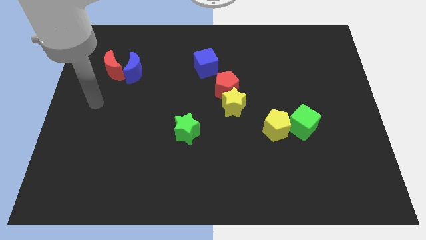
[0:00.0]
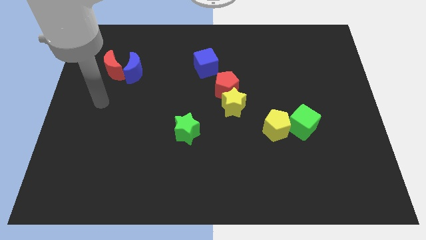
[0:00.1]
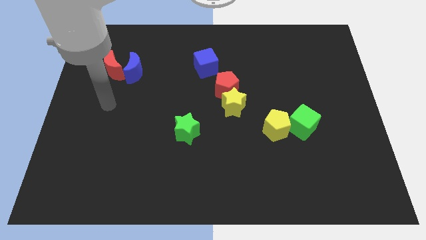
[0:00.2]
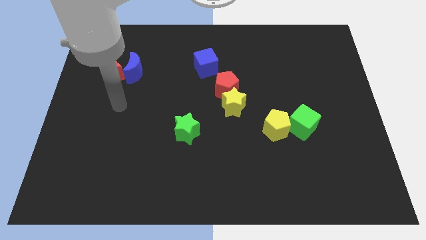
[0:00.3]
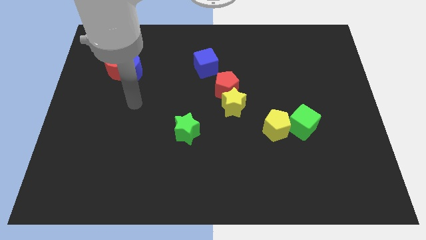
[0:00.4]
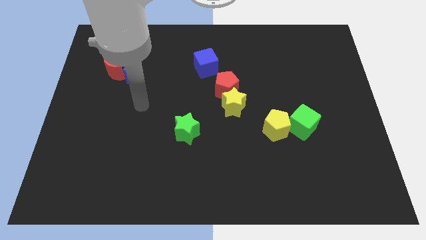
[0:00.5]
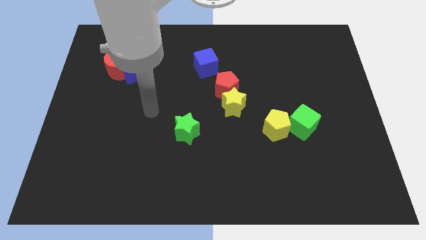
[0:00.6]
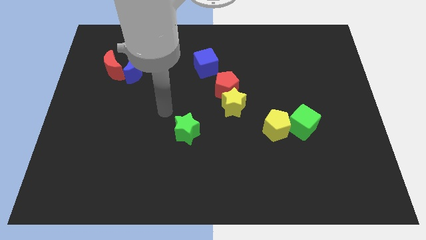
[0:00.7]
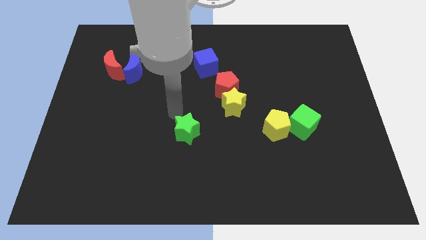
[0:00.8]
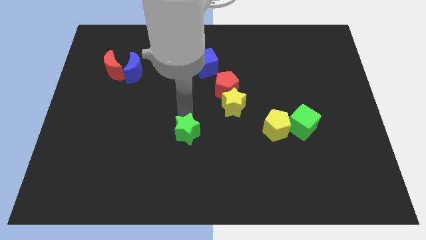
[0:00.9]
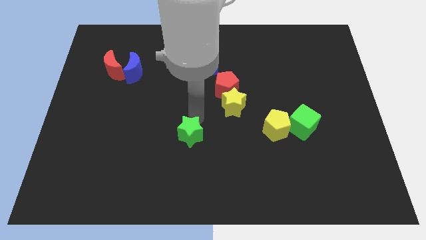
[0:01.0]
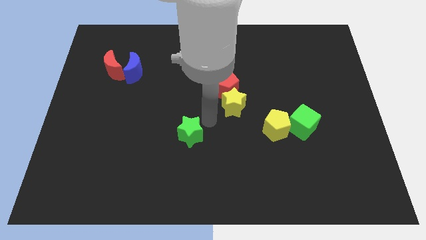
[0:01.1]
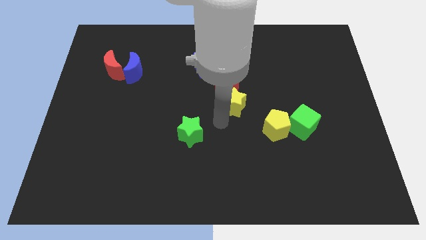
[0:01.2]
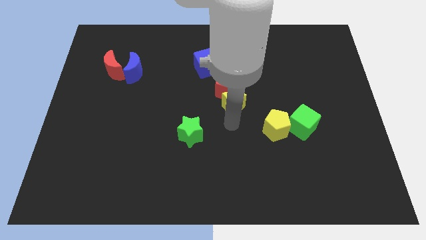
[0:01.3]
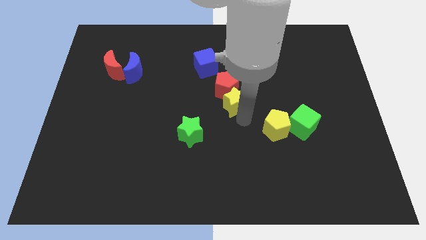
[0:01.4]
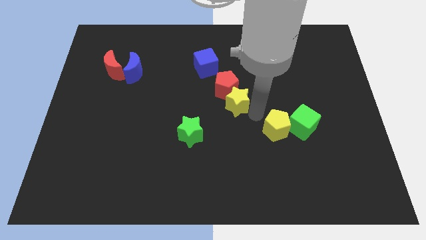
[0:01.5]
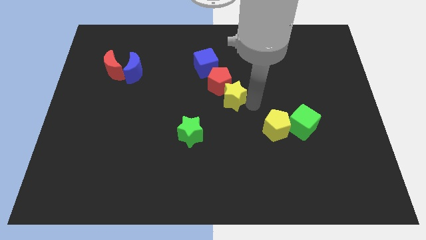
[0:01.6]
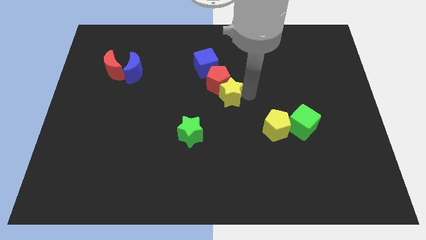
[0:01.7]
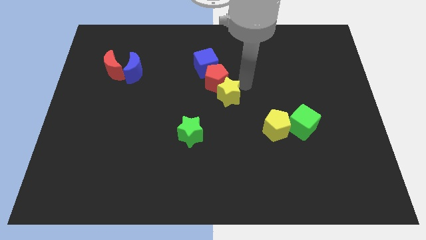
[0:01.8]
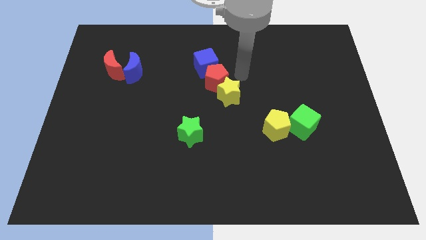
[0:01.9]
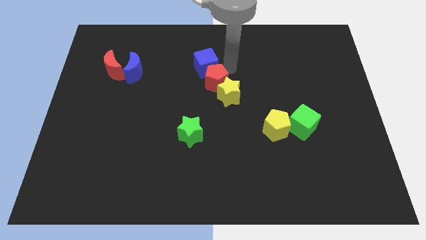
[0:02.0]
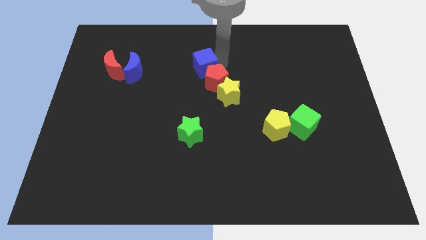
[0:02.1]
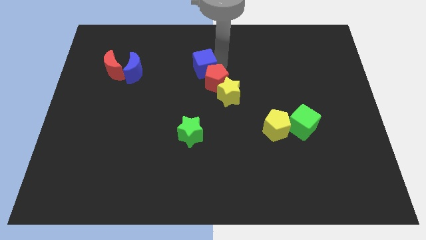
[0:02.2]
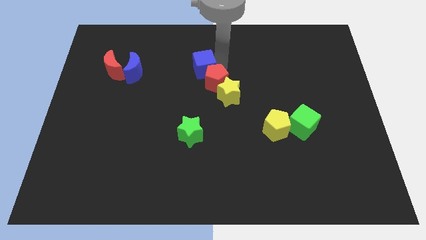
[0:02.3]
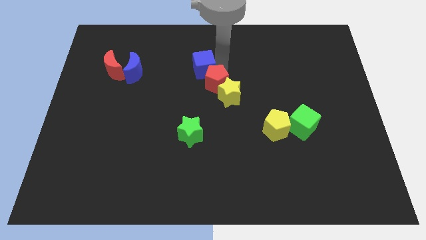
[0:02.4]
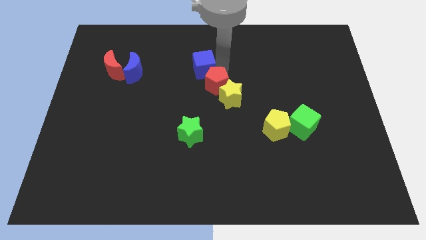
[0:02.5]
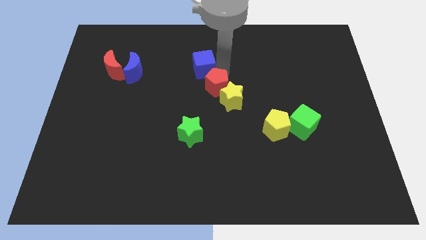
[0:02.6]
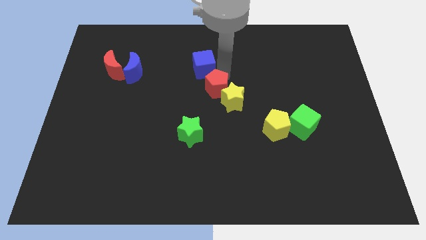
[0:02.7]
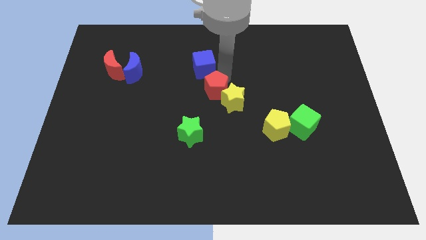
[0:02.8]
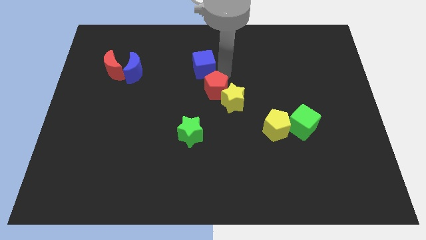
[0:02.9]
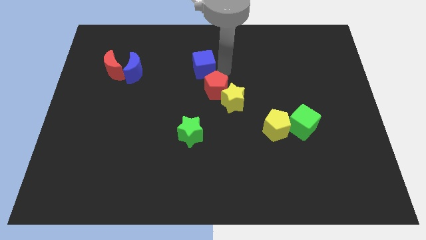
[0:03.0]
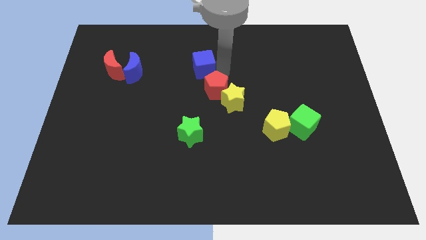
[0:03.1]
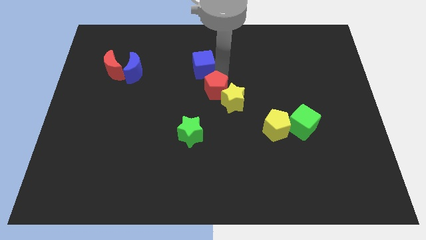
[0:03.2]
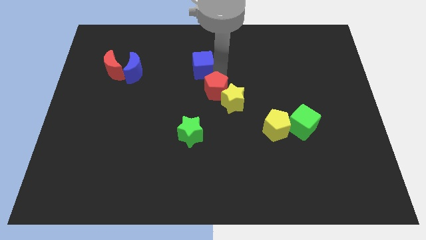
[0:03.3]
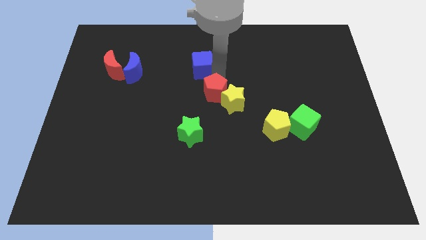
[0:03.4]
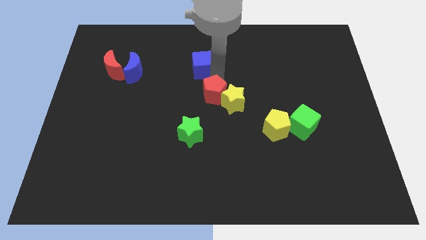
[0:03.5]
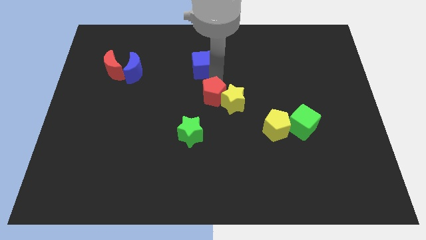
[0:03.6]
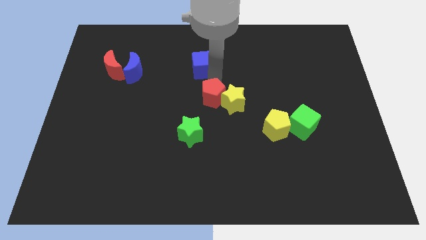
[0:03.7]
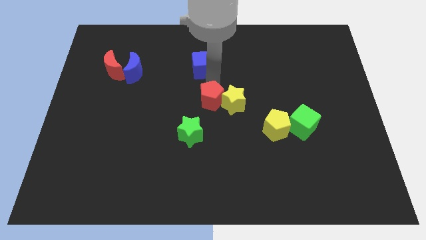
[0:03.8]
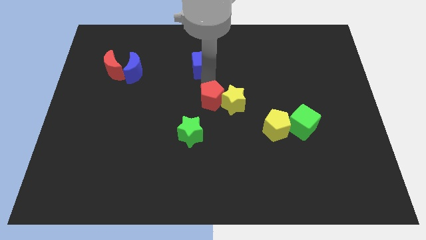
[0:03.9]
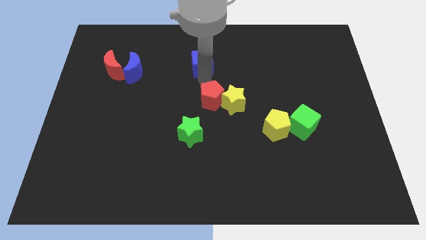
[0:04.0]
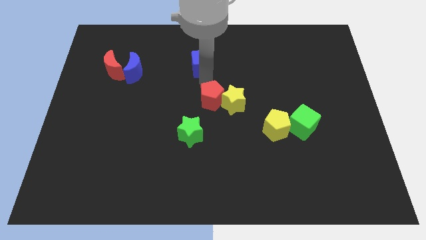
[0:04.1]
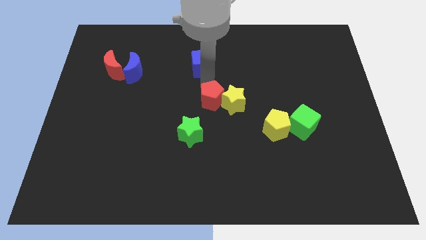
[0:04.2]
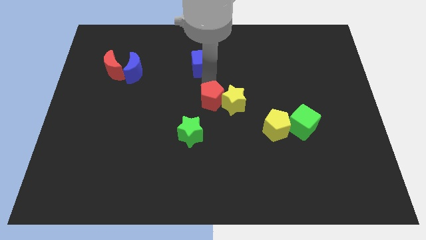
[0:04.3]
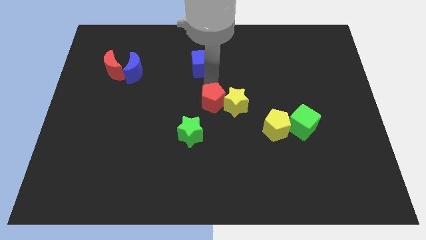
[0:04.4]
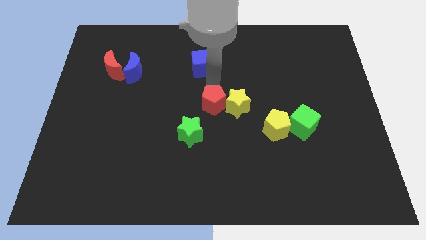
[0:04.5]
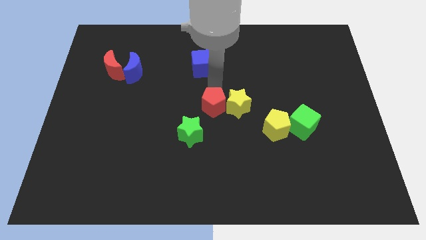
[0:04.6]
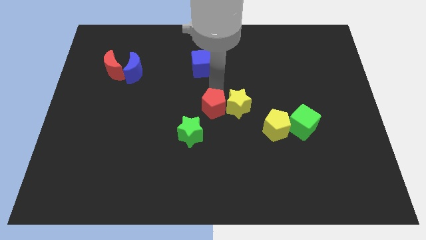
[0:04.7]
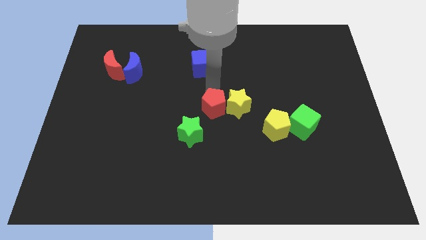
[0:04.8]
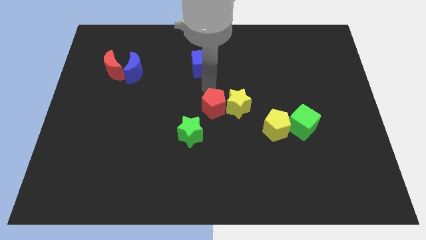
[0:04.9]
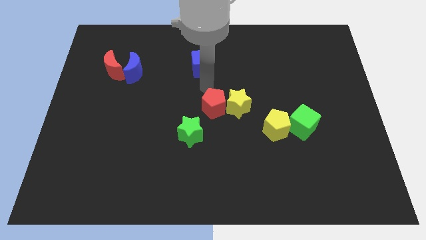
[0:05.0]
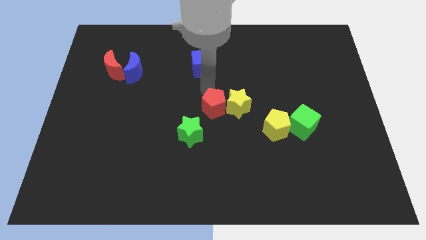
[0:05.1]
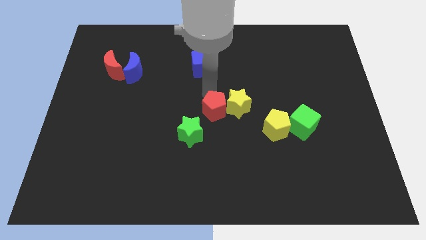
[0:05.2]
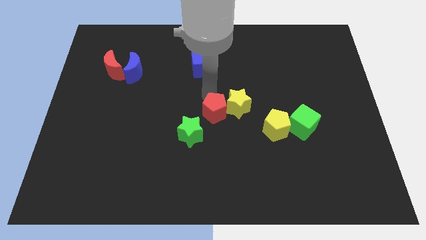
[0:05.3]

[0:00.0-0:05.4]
push the red pentagon a little down

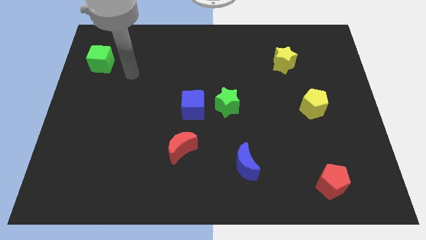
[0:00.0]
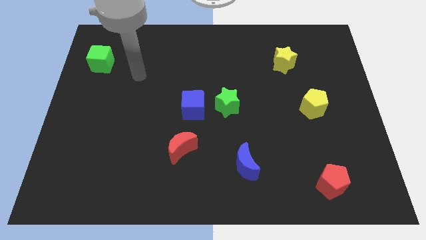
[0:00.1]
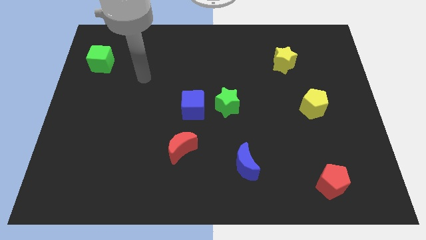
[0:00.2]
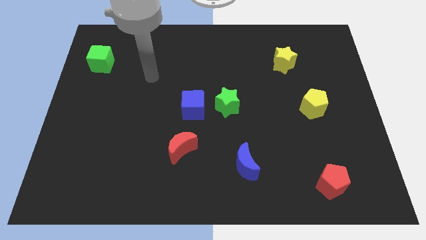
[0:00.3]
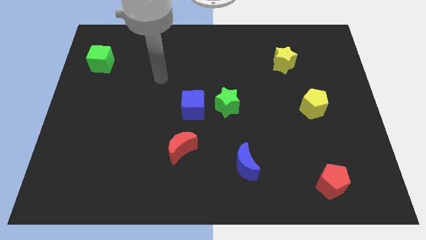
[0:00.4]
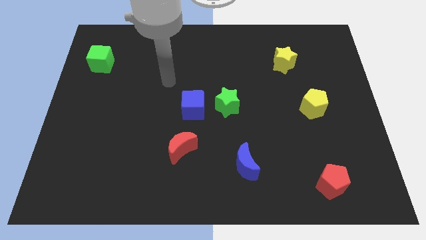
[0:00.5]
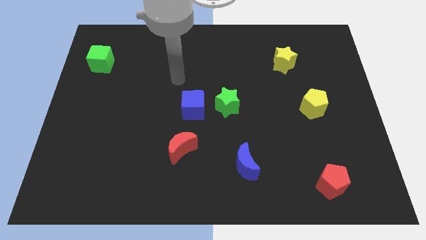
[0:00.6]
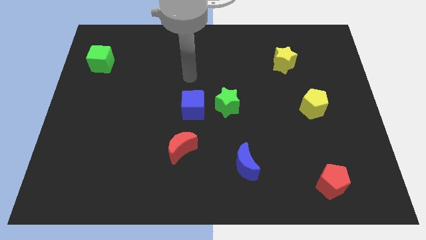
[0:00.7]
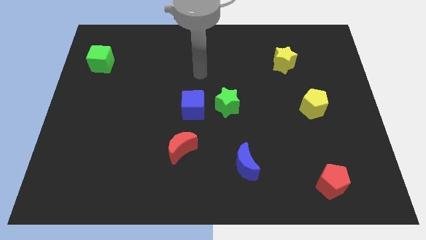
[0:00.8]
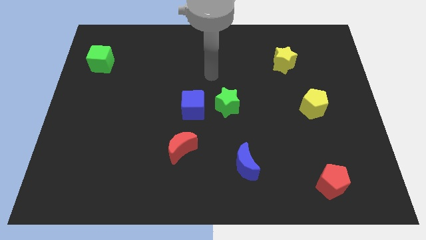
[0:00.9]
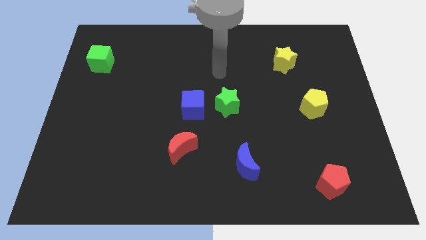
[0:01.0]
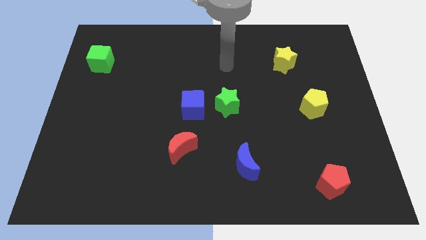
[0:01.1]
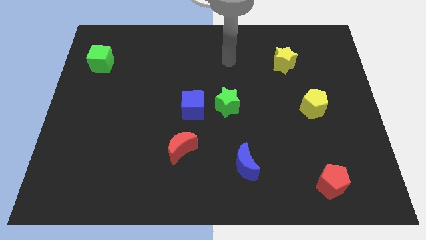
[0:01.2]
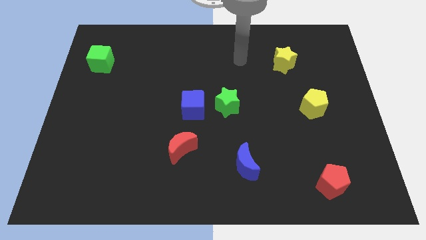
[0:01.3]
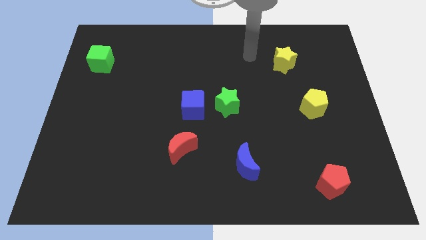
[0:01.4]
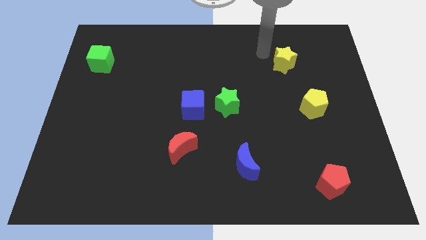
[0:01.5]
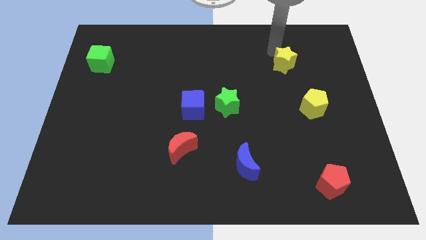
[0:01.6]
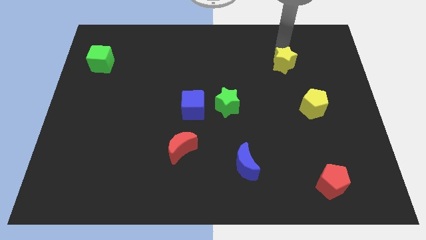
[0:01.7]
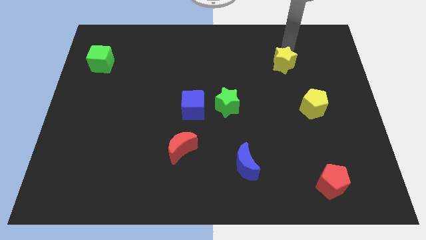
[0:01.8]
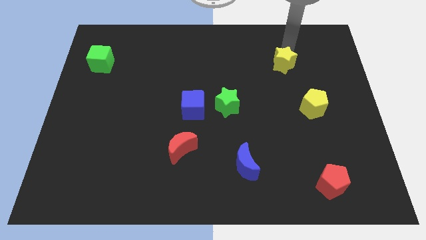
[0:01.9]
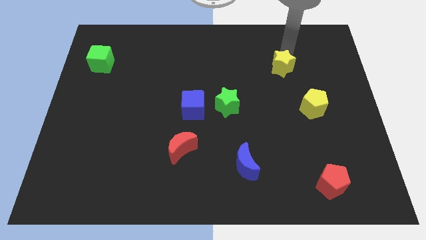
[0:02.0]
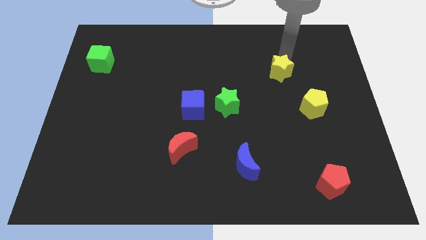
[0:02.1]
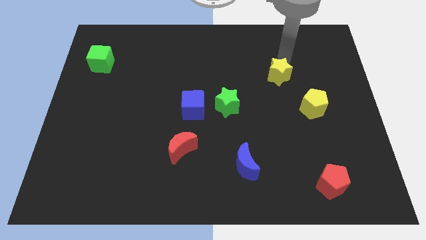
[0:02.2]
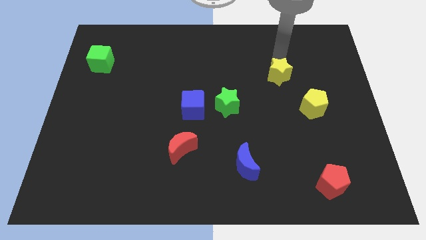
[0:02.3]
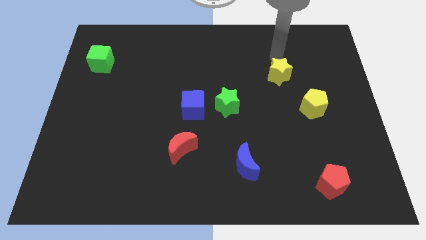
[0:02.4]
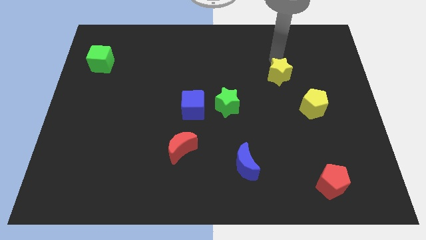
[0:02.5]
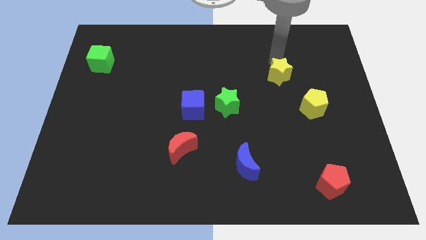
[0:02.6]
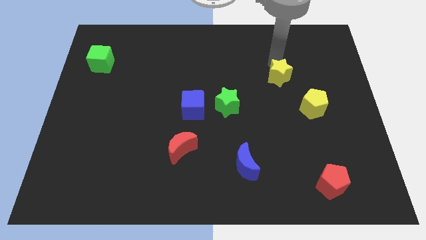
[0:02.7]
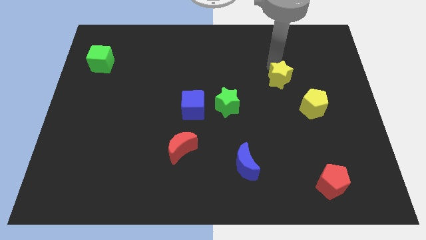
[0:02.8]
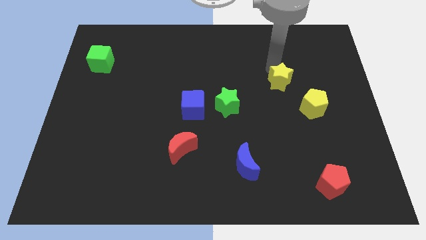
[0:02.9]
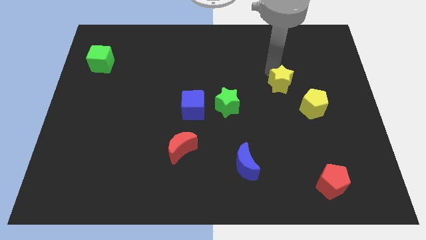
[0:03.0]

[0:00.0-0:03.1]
move the yellow star a little downwards
